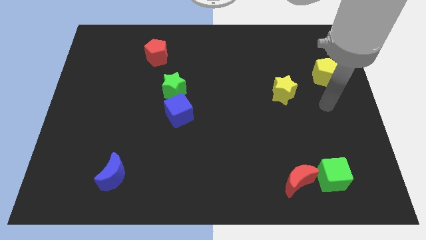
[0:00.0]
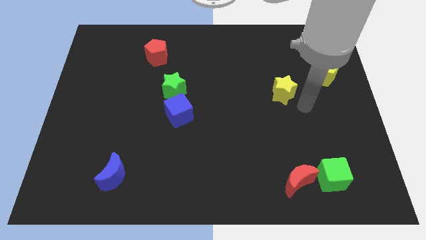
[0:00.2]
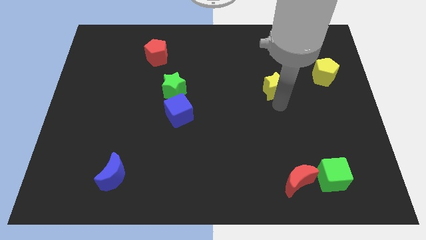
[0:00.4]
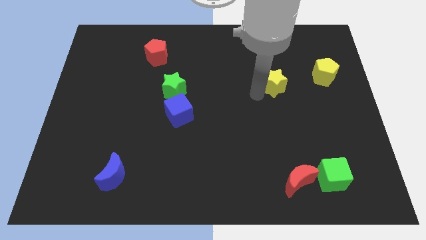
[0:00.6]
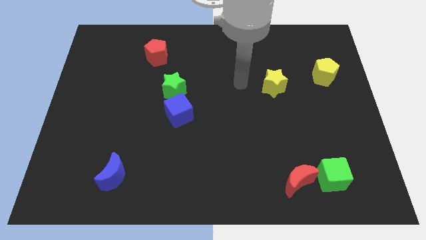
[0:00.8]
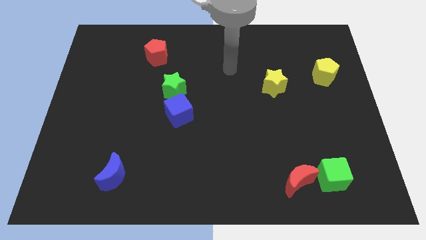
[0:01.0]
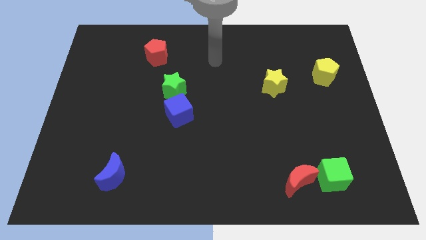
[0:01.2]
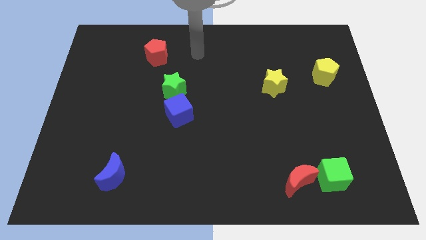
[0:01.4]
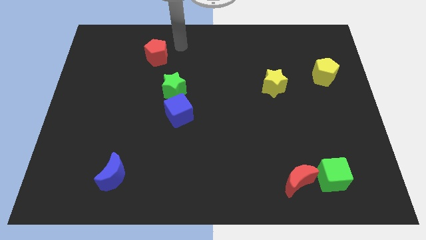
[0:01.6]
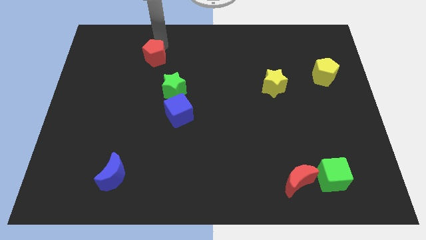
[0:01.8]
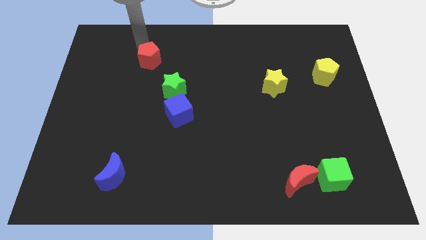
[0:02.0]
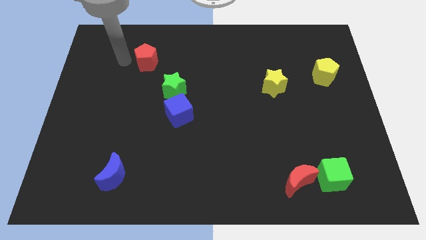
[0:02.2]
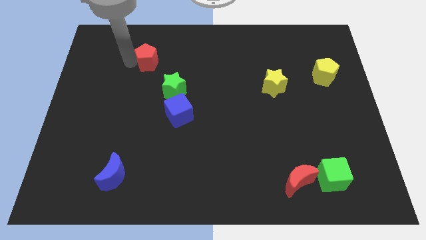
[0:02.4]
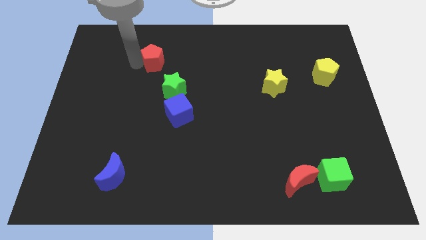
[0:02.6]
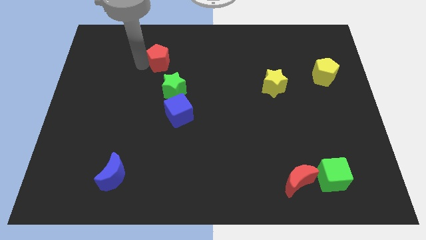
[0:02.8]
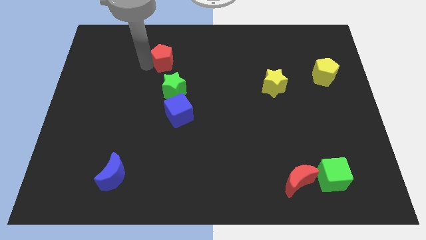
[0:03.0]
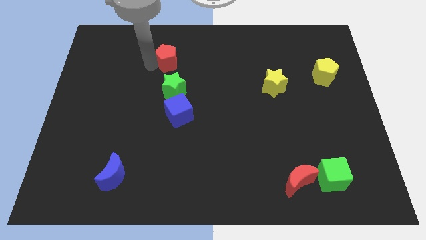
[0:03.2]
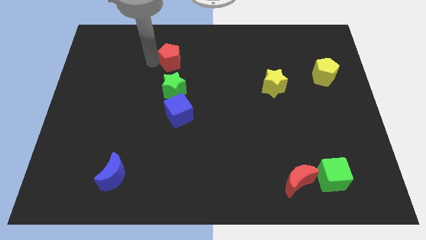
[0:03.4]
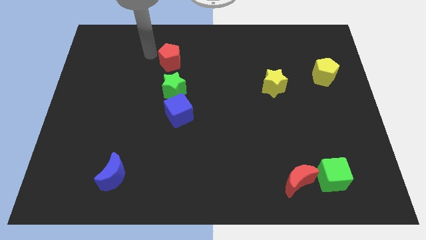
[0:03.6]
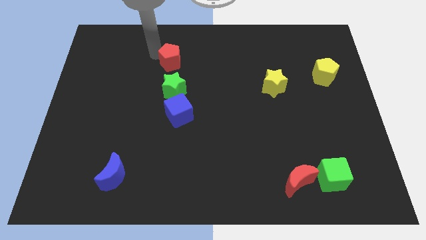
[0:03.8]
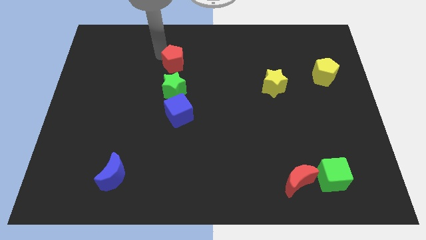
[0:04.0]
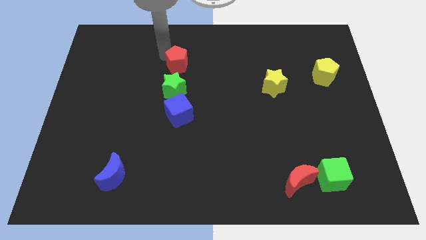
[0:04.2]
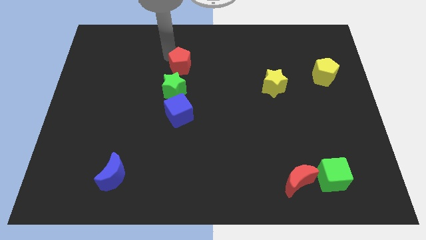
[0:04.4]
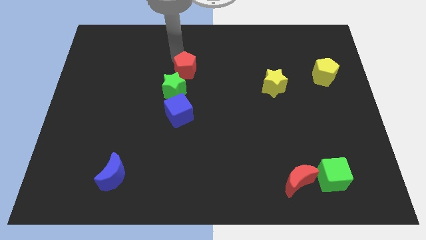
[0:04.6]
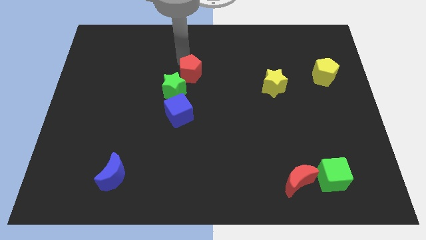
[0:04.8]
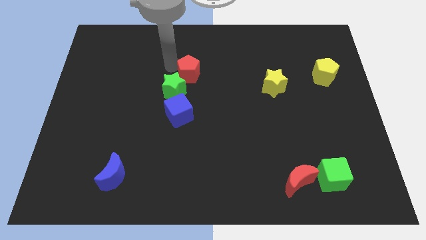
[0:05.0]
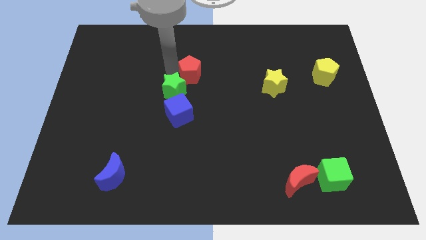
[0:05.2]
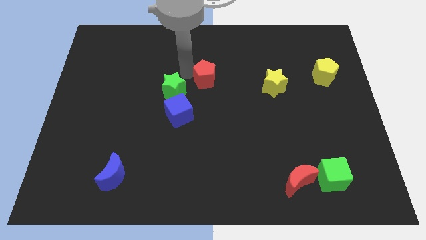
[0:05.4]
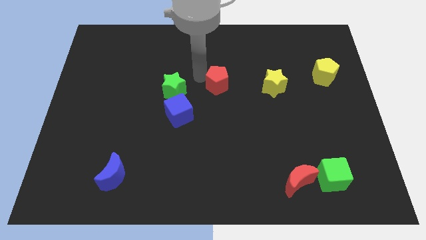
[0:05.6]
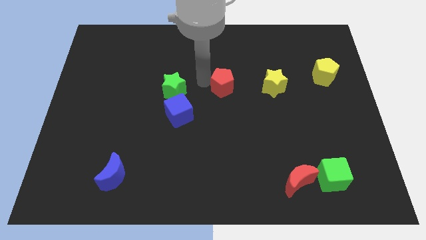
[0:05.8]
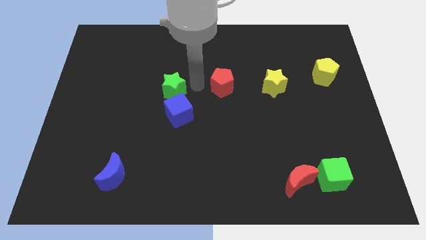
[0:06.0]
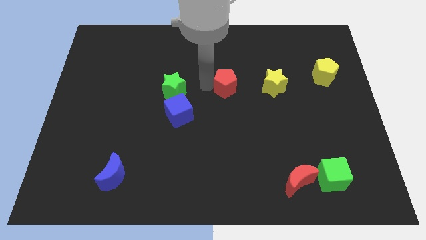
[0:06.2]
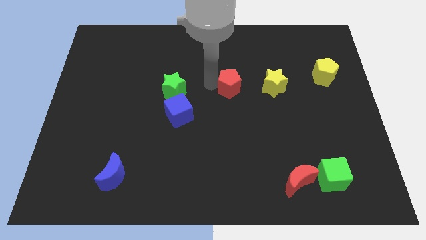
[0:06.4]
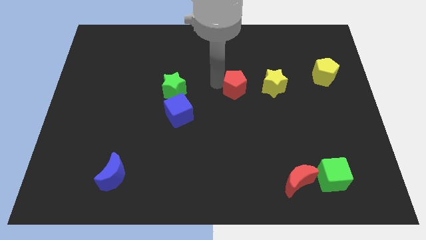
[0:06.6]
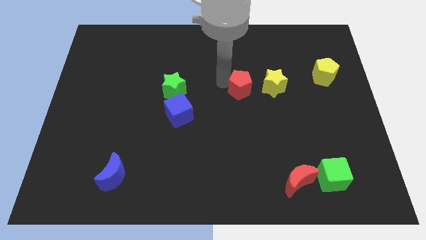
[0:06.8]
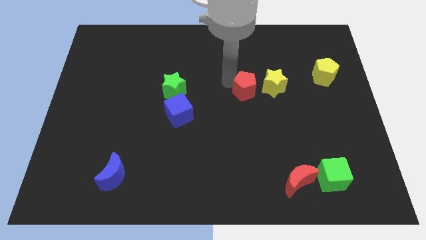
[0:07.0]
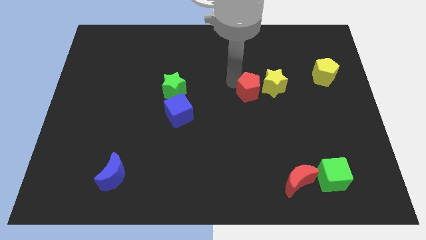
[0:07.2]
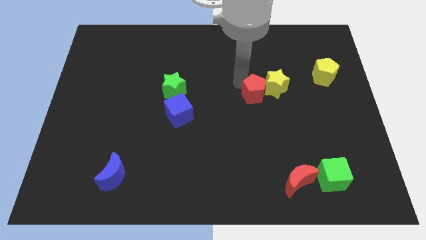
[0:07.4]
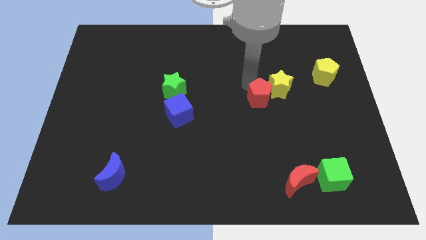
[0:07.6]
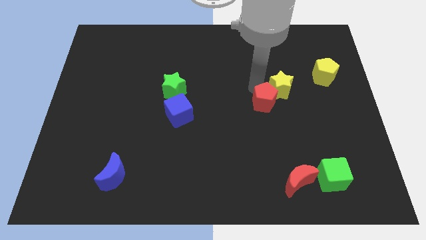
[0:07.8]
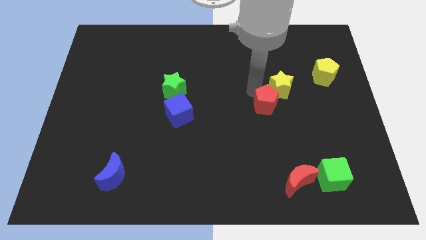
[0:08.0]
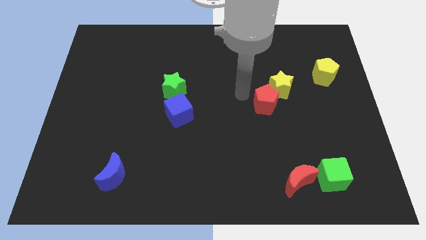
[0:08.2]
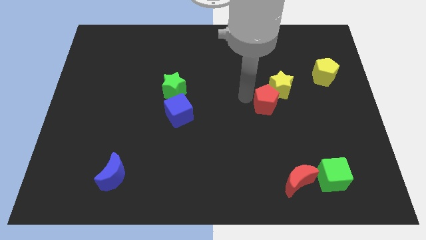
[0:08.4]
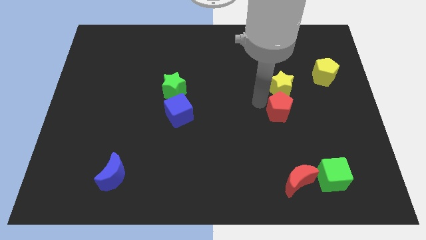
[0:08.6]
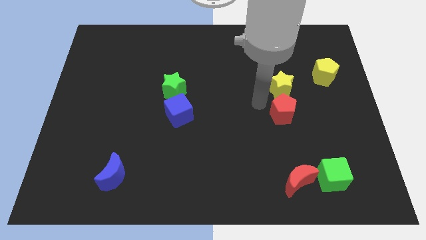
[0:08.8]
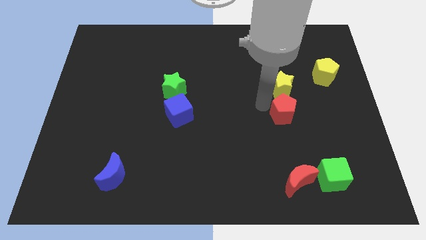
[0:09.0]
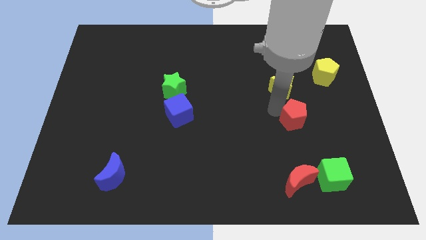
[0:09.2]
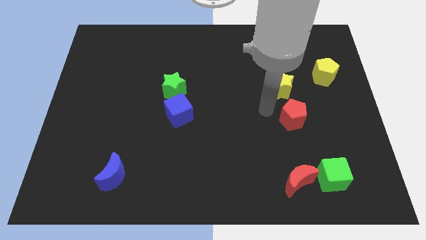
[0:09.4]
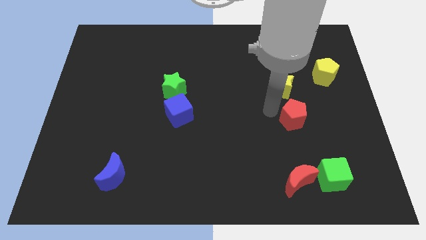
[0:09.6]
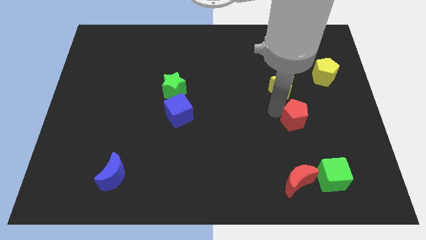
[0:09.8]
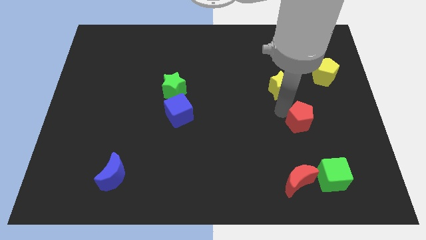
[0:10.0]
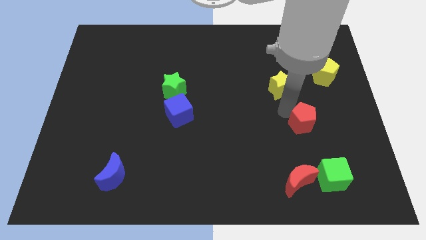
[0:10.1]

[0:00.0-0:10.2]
put the red pentagon to the top side of the green cube
